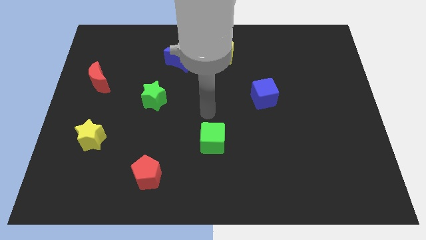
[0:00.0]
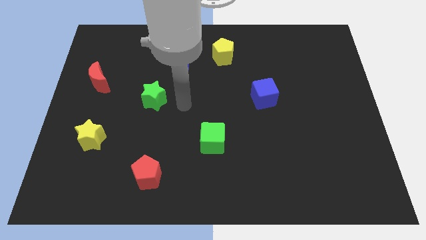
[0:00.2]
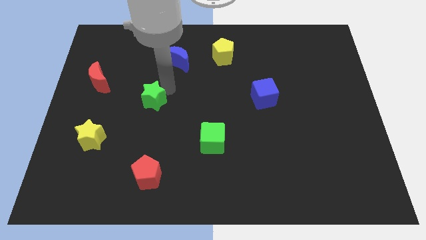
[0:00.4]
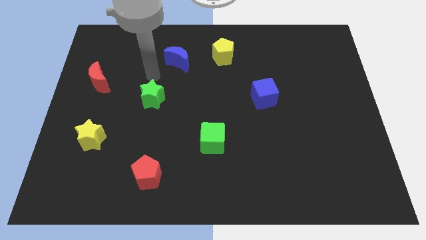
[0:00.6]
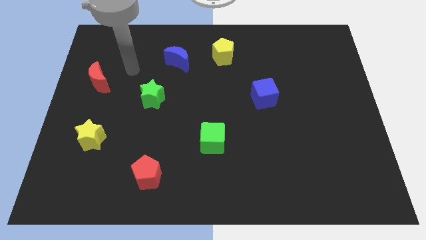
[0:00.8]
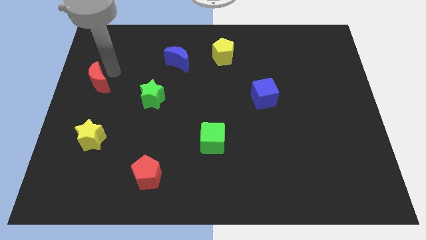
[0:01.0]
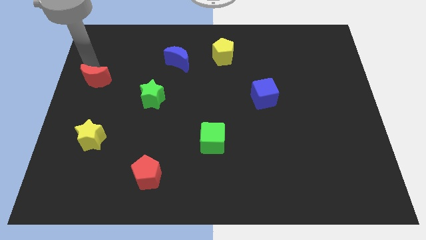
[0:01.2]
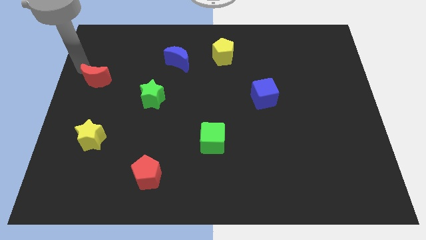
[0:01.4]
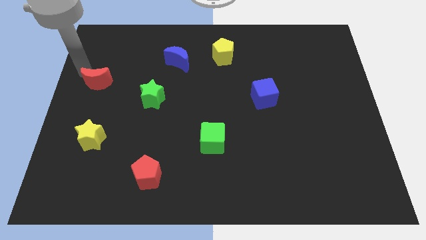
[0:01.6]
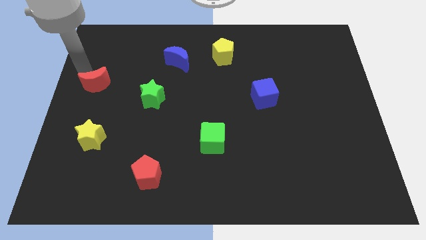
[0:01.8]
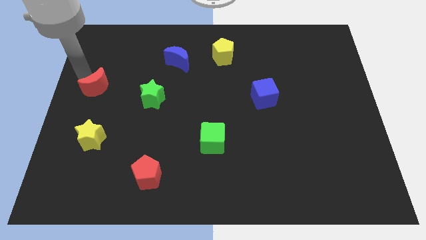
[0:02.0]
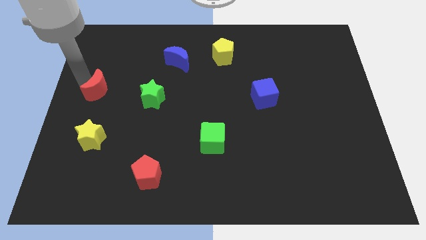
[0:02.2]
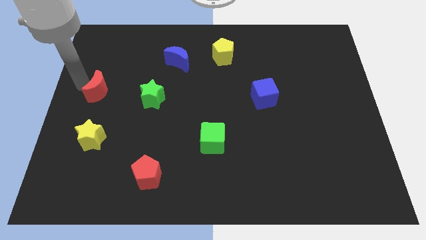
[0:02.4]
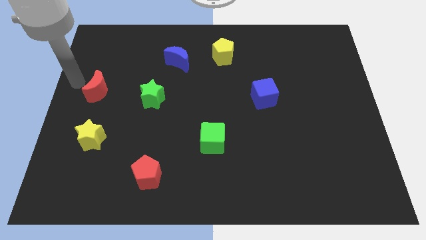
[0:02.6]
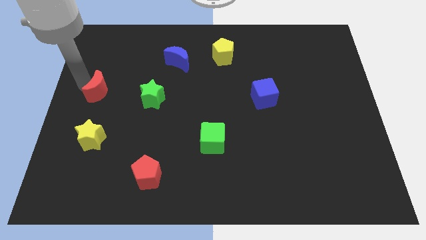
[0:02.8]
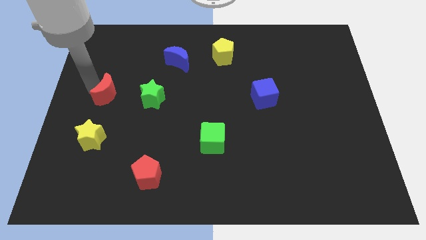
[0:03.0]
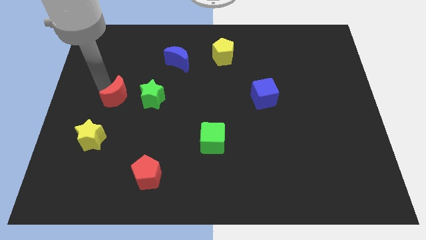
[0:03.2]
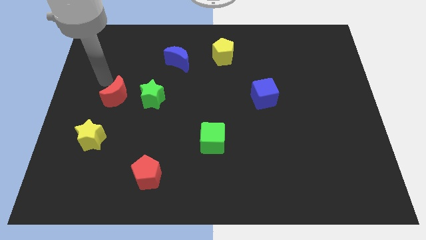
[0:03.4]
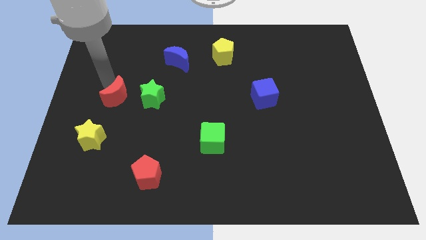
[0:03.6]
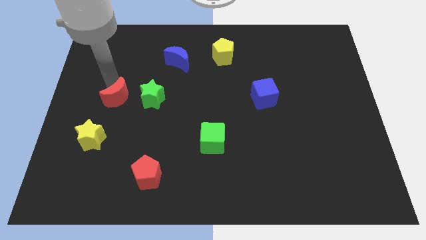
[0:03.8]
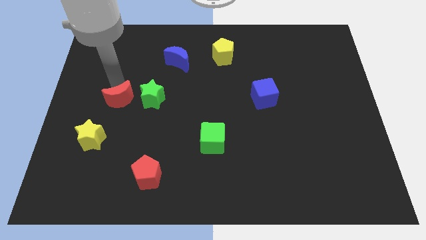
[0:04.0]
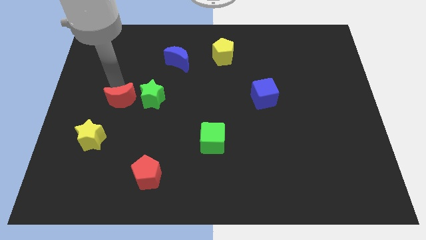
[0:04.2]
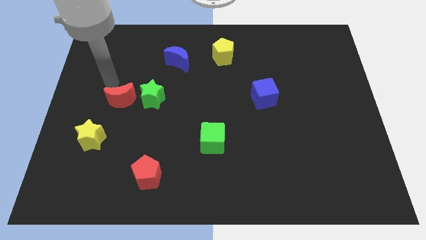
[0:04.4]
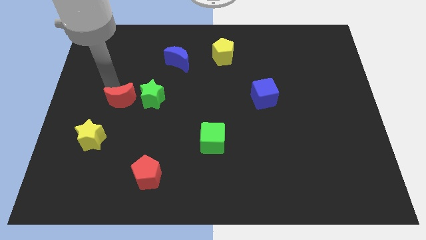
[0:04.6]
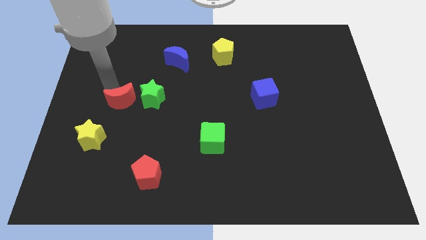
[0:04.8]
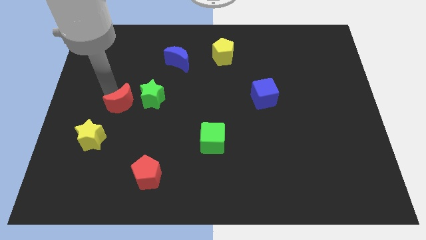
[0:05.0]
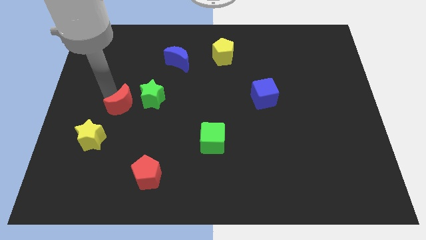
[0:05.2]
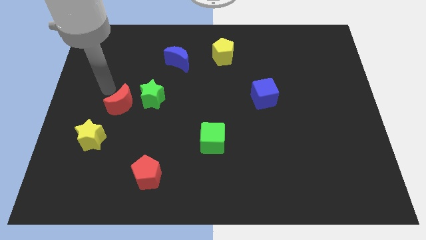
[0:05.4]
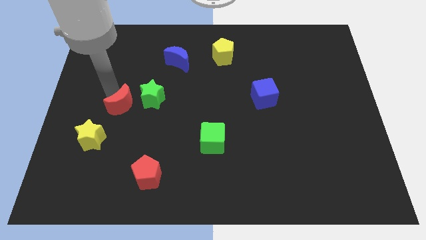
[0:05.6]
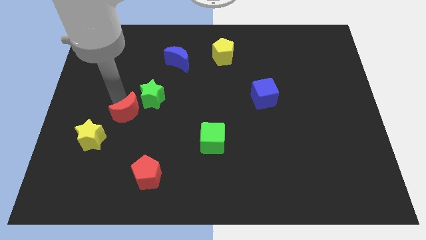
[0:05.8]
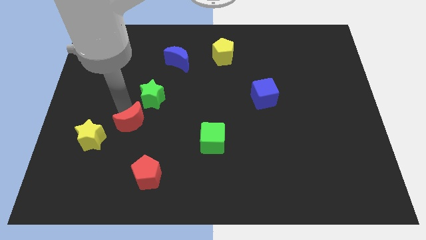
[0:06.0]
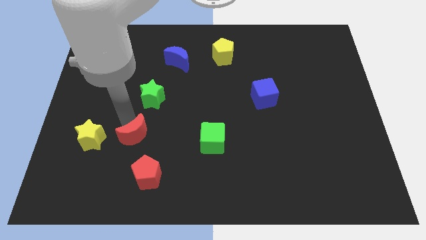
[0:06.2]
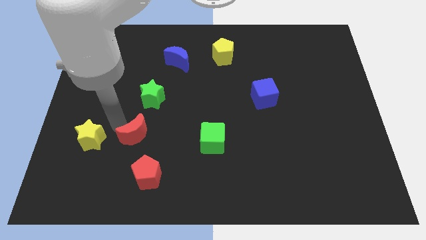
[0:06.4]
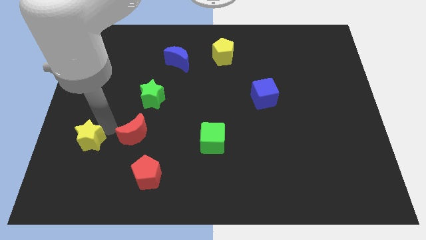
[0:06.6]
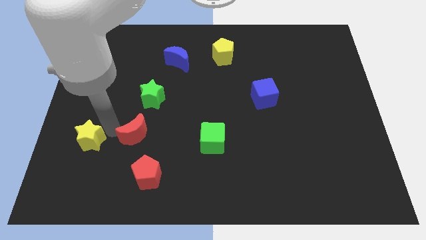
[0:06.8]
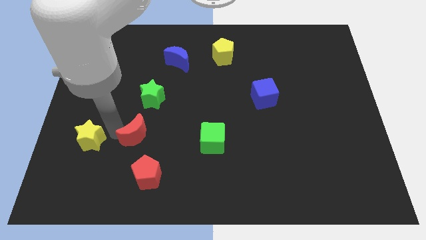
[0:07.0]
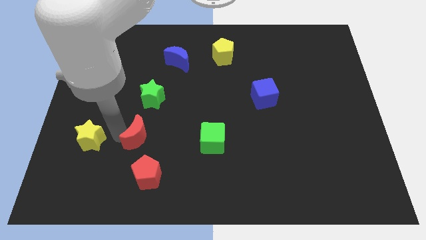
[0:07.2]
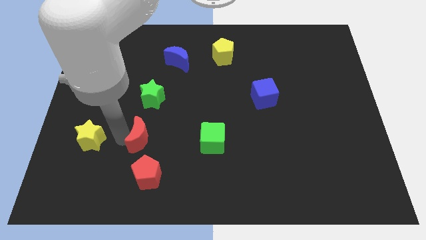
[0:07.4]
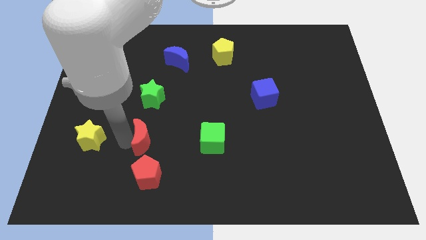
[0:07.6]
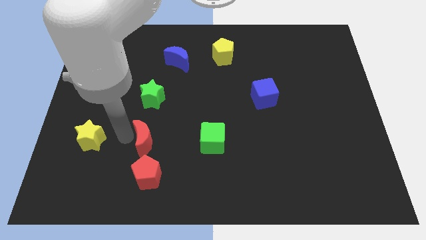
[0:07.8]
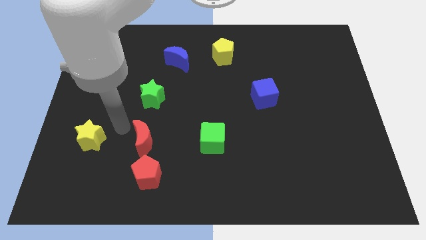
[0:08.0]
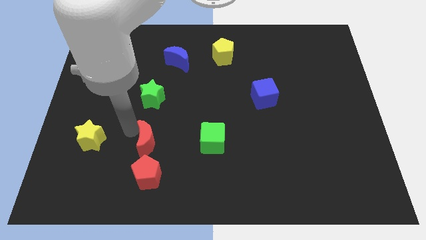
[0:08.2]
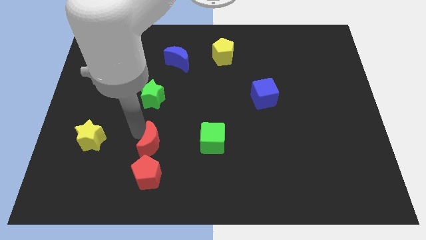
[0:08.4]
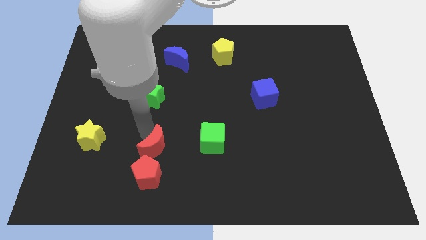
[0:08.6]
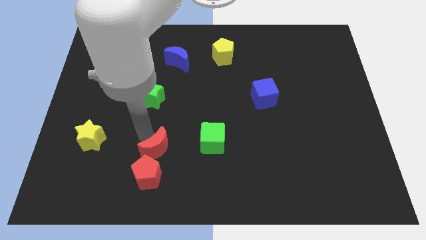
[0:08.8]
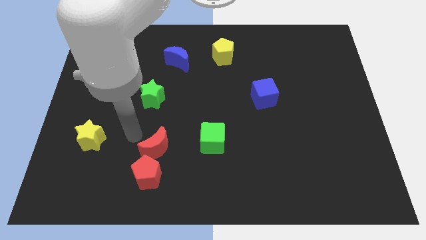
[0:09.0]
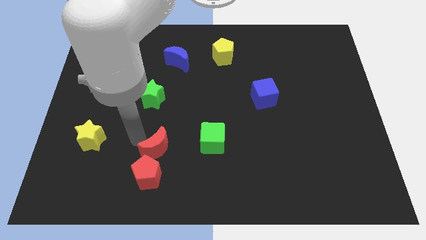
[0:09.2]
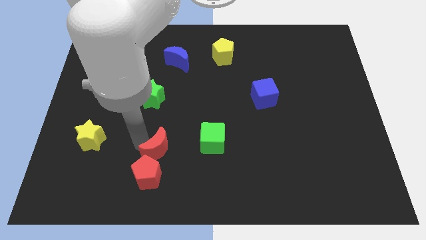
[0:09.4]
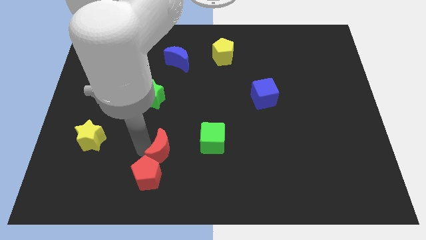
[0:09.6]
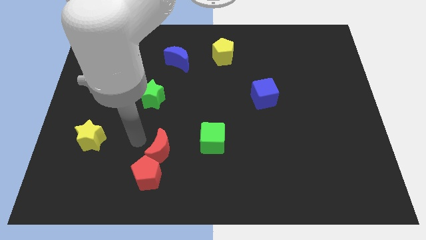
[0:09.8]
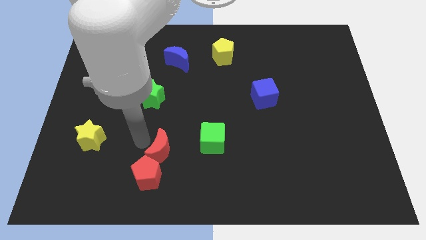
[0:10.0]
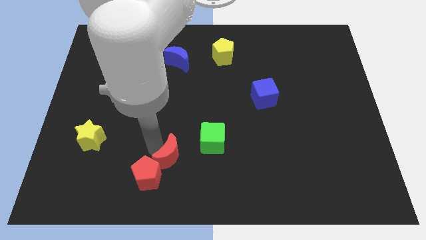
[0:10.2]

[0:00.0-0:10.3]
move the red moon right of the red pentagon

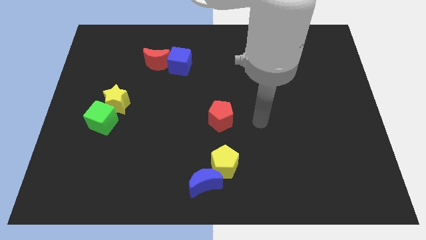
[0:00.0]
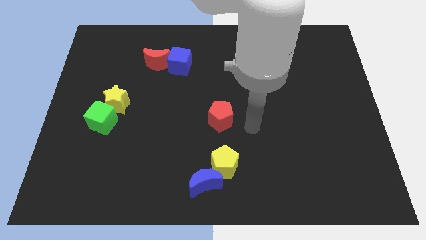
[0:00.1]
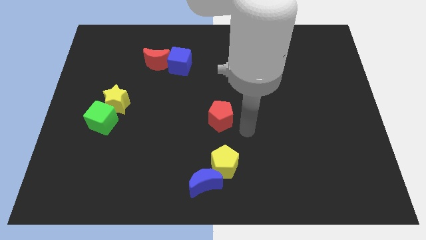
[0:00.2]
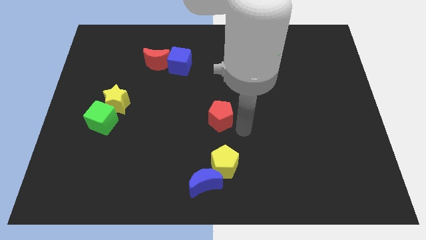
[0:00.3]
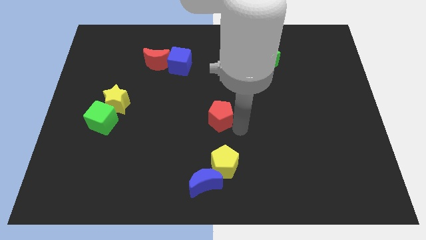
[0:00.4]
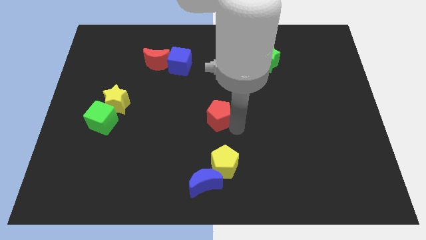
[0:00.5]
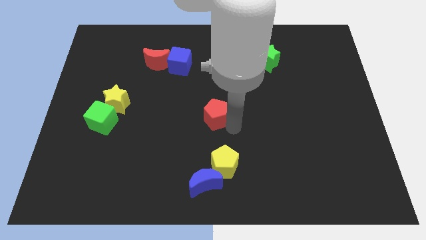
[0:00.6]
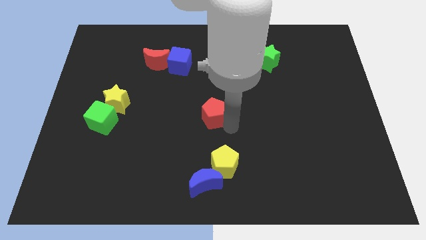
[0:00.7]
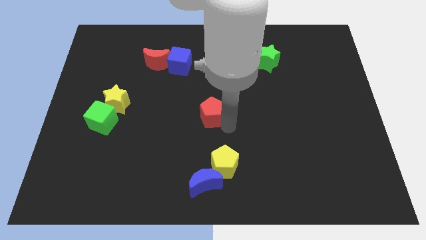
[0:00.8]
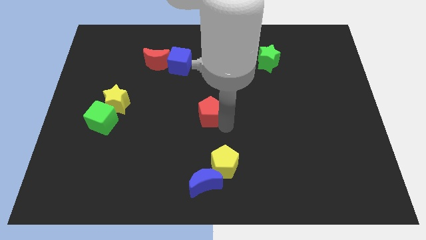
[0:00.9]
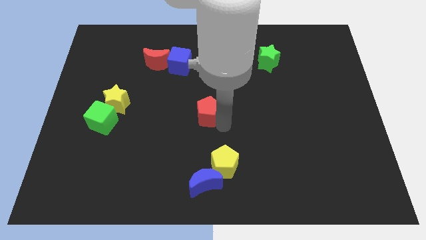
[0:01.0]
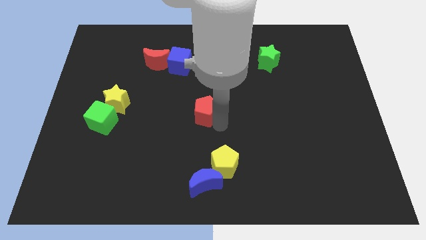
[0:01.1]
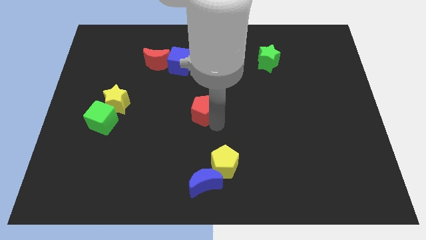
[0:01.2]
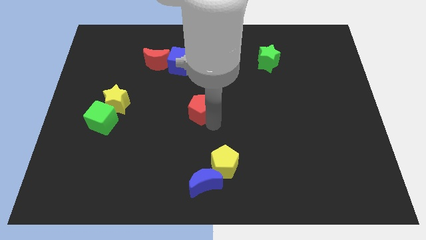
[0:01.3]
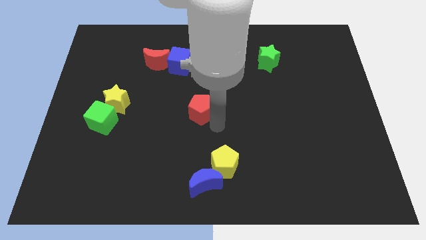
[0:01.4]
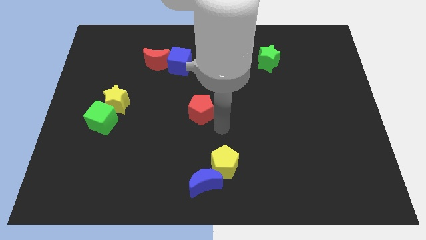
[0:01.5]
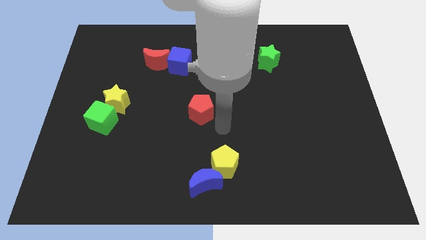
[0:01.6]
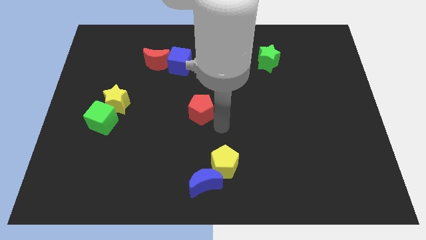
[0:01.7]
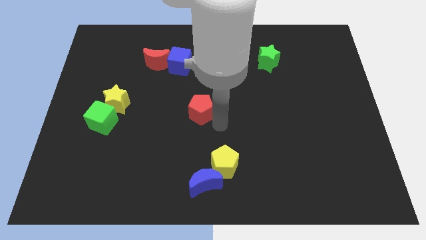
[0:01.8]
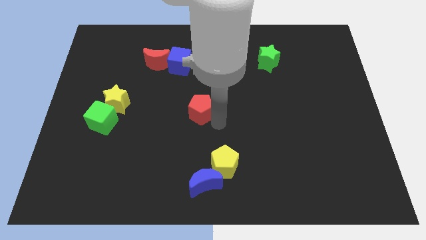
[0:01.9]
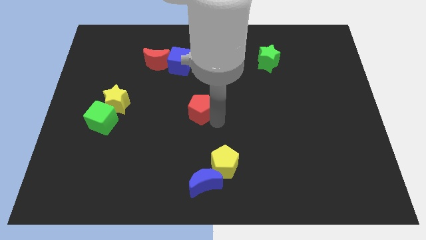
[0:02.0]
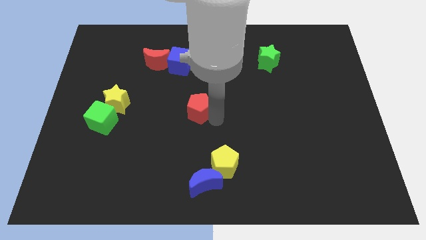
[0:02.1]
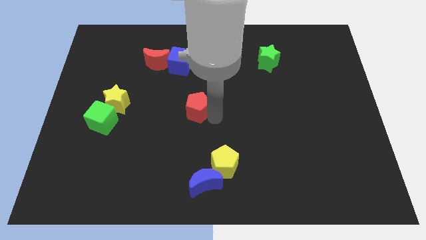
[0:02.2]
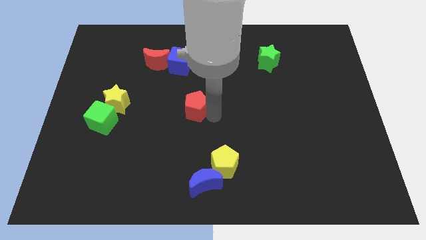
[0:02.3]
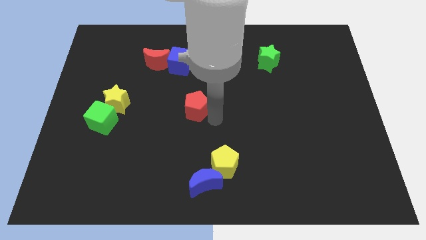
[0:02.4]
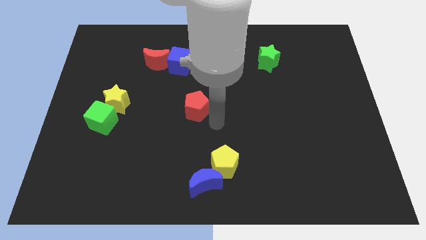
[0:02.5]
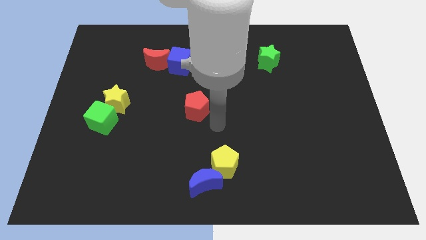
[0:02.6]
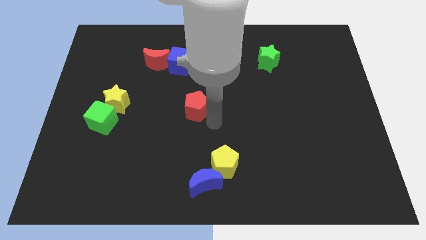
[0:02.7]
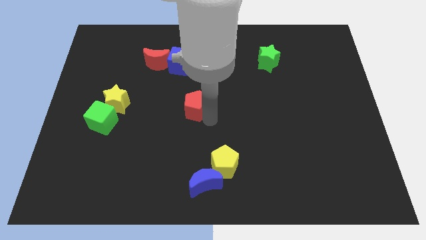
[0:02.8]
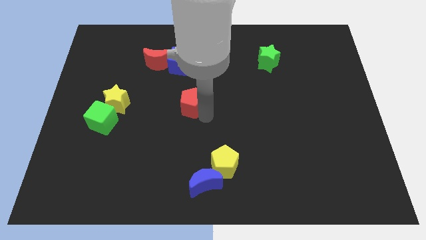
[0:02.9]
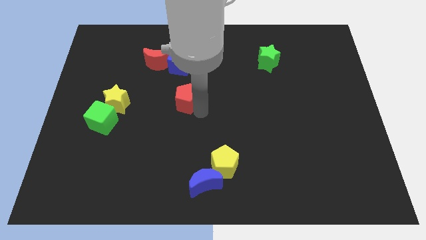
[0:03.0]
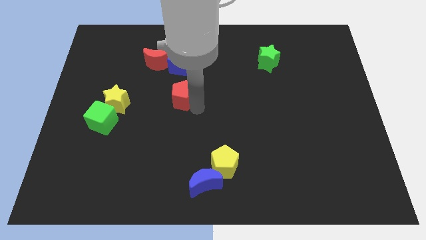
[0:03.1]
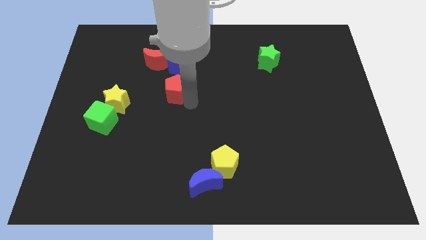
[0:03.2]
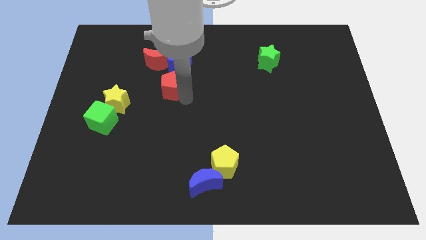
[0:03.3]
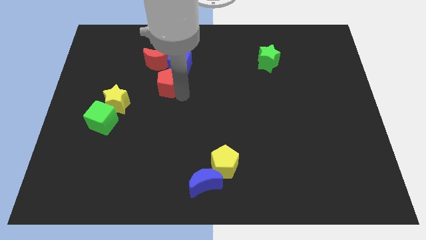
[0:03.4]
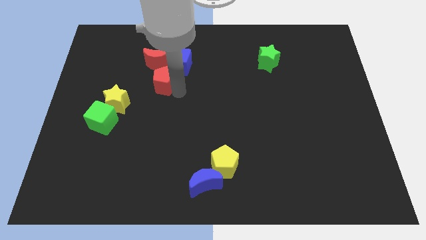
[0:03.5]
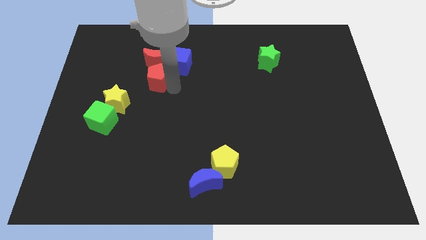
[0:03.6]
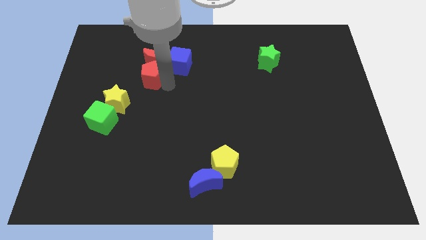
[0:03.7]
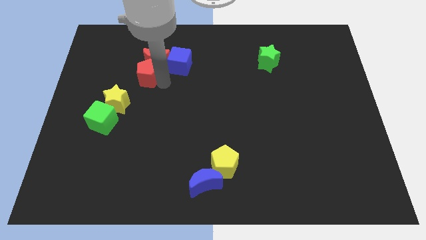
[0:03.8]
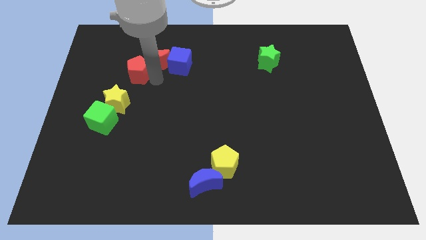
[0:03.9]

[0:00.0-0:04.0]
push the red pentagon left of the red moon
